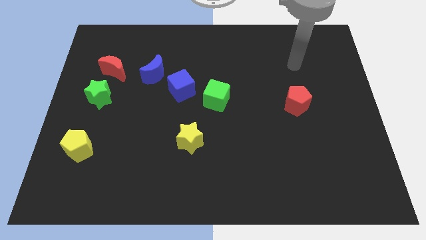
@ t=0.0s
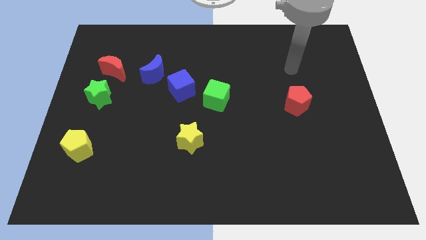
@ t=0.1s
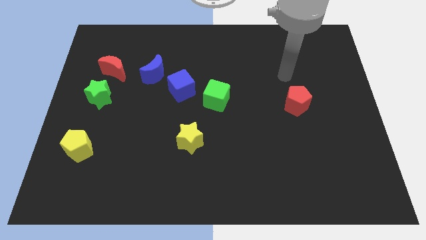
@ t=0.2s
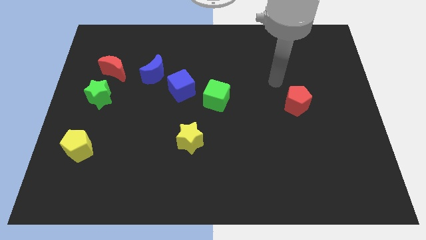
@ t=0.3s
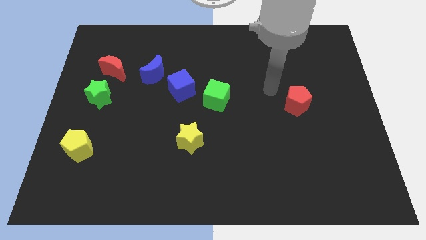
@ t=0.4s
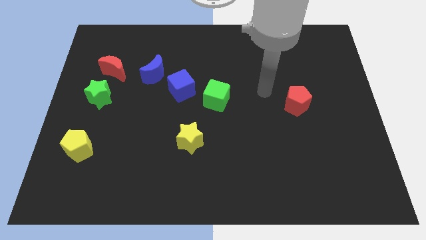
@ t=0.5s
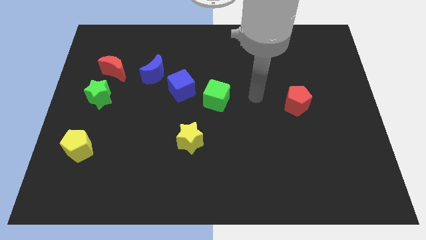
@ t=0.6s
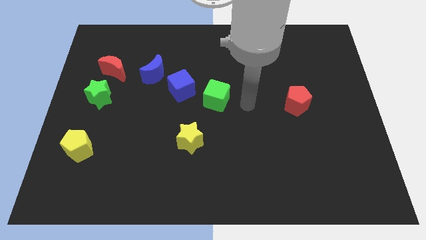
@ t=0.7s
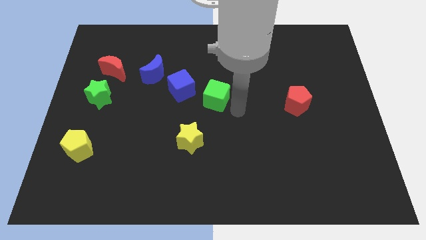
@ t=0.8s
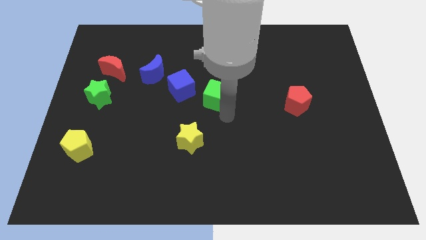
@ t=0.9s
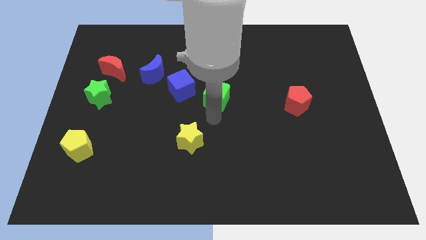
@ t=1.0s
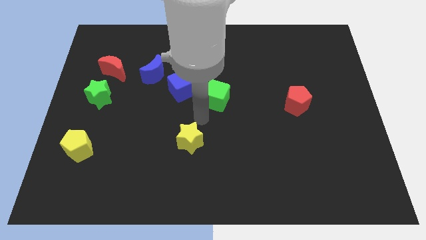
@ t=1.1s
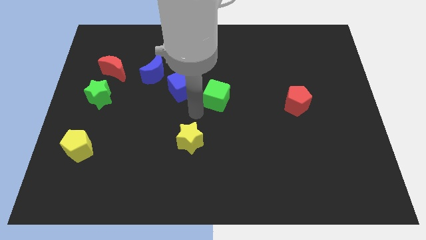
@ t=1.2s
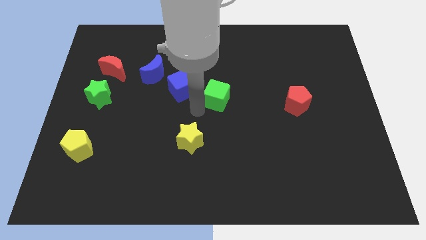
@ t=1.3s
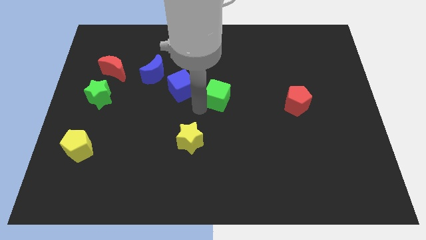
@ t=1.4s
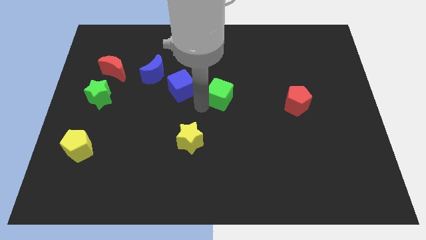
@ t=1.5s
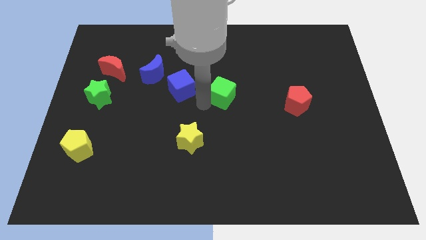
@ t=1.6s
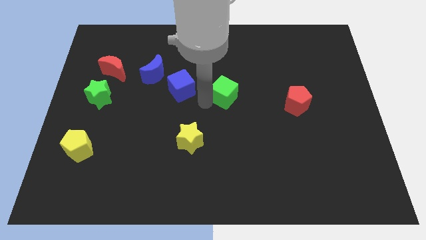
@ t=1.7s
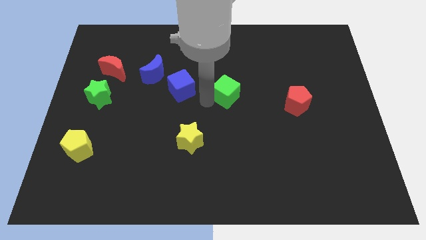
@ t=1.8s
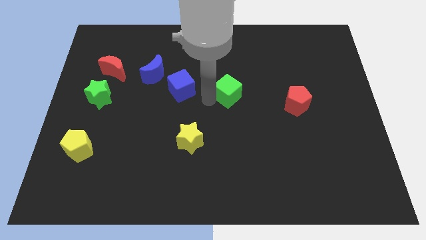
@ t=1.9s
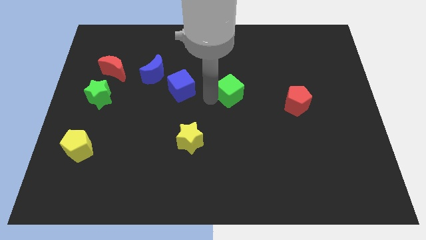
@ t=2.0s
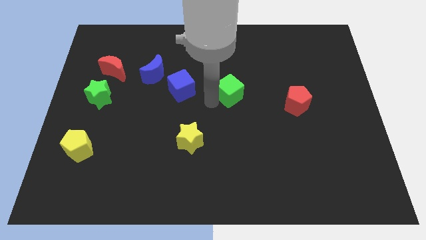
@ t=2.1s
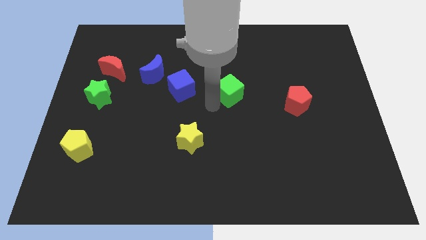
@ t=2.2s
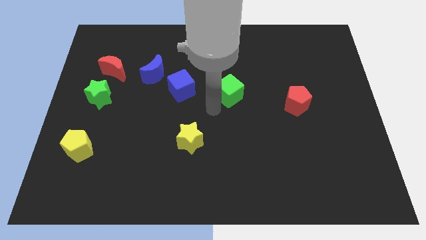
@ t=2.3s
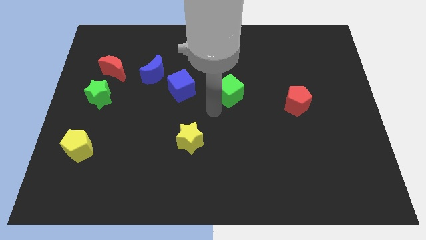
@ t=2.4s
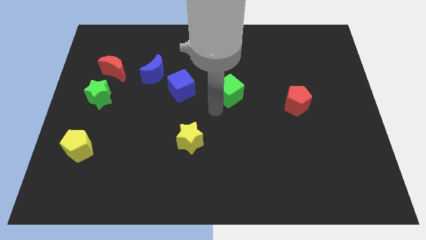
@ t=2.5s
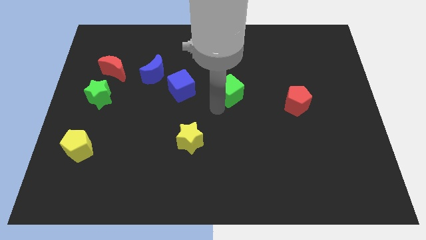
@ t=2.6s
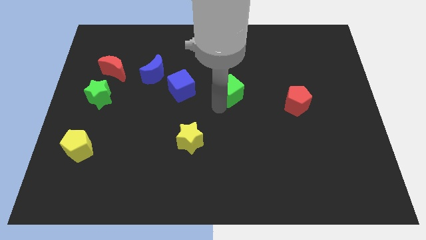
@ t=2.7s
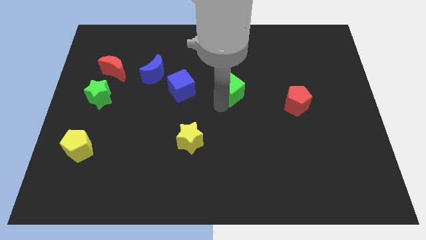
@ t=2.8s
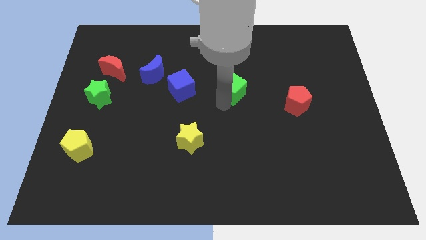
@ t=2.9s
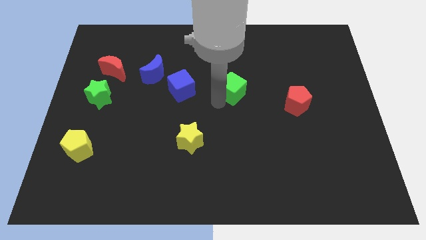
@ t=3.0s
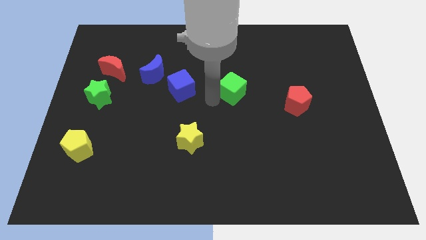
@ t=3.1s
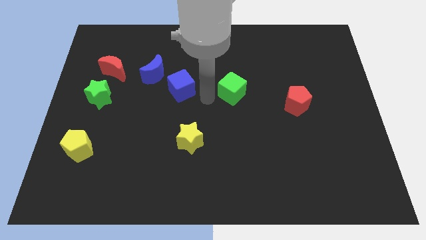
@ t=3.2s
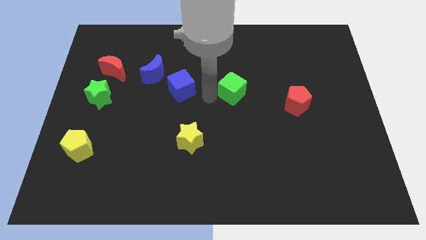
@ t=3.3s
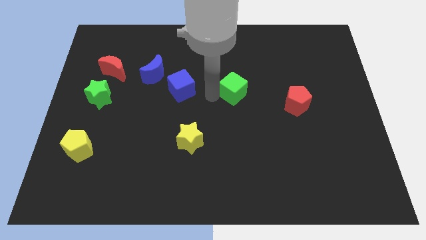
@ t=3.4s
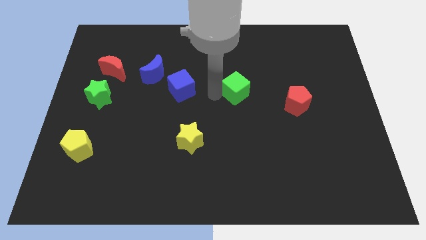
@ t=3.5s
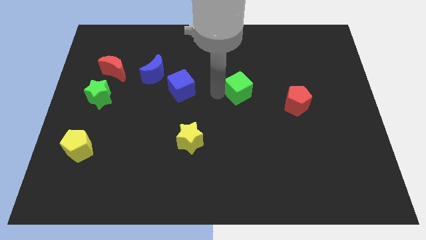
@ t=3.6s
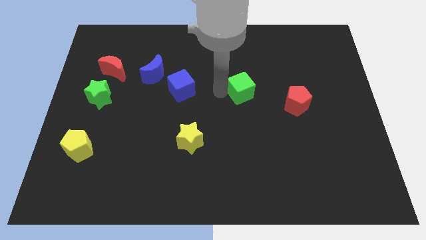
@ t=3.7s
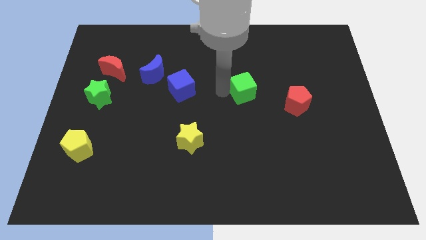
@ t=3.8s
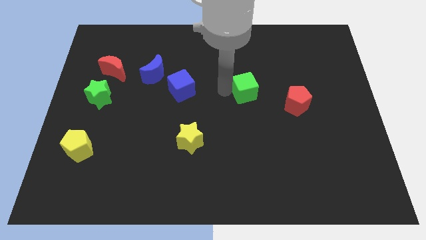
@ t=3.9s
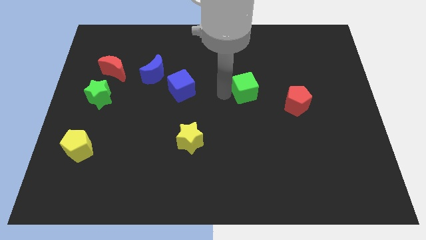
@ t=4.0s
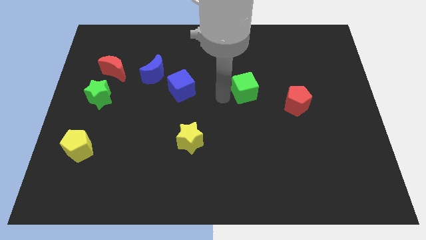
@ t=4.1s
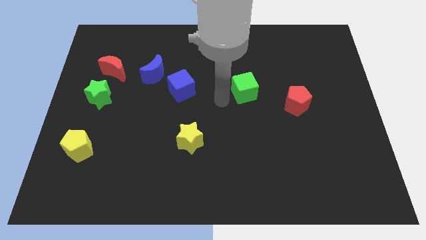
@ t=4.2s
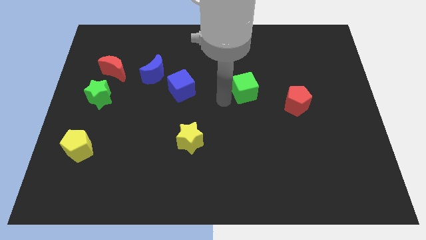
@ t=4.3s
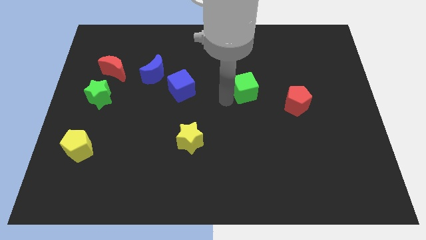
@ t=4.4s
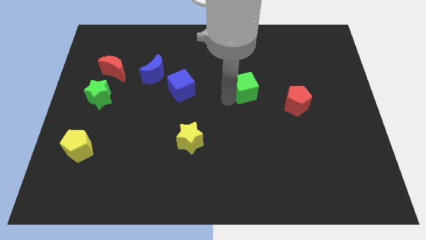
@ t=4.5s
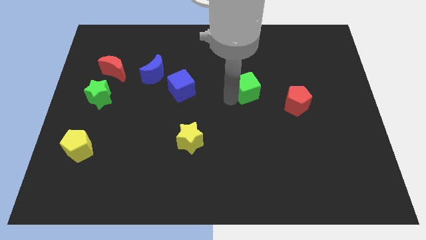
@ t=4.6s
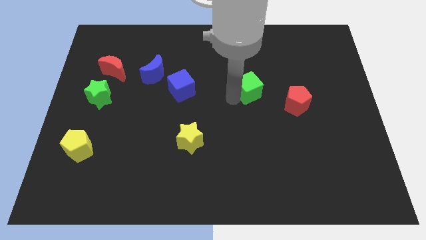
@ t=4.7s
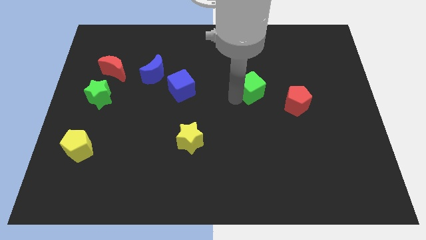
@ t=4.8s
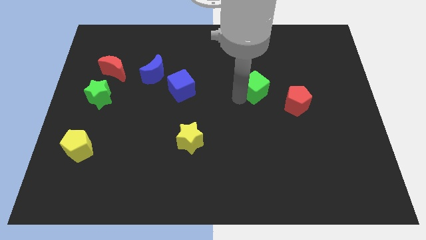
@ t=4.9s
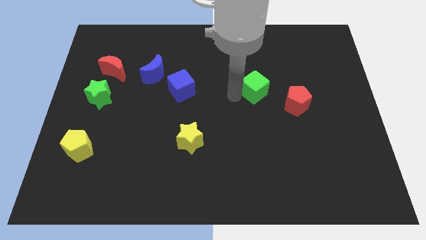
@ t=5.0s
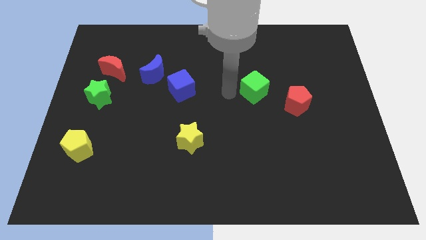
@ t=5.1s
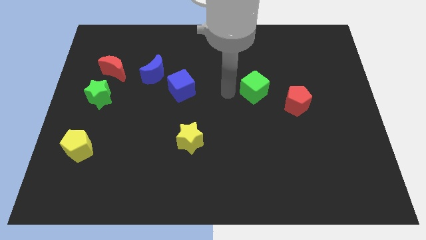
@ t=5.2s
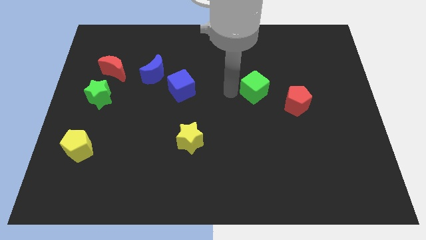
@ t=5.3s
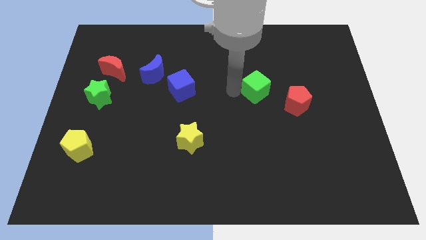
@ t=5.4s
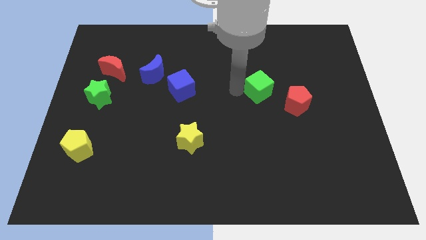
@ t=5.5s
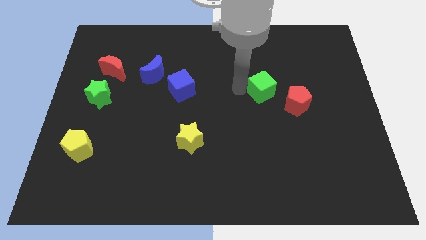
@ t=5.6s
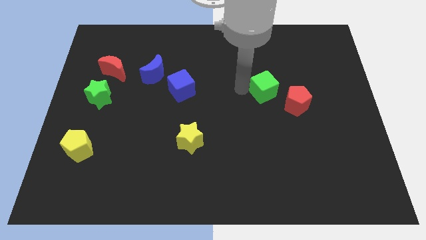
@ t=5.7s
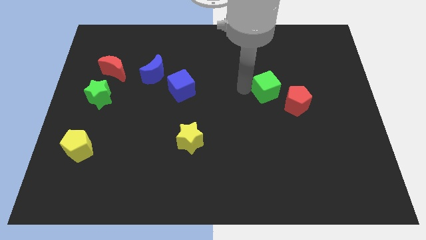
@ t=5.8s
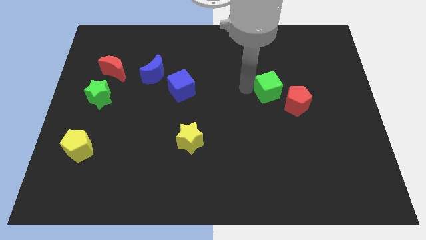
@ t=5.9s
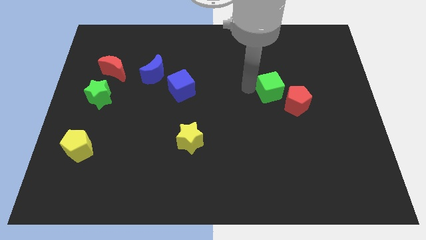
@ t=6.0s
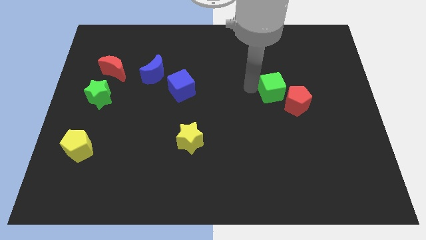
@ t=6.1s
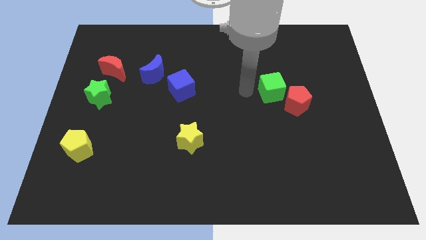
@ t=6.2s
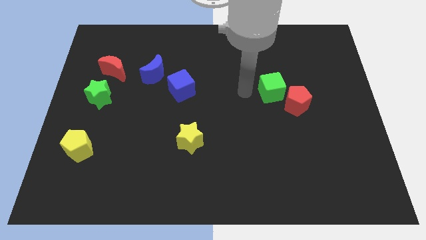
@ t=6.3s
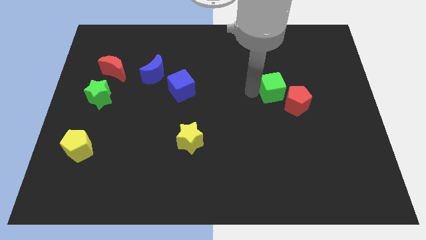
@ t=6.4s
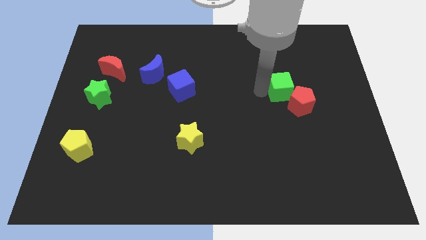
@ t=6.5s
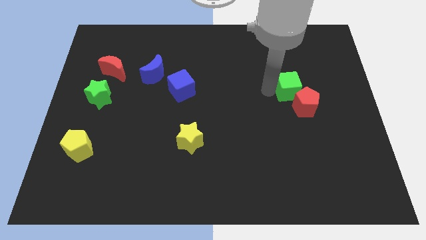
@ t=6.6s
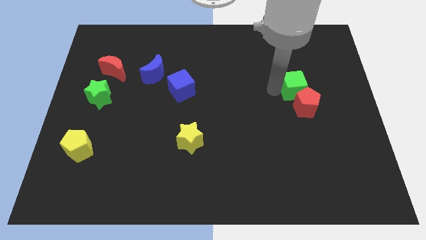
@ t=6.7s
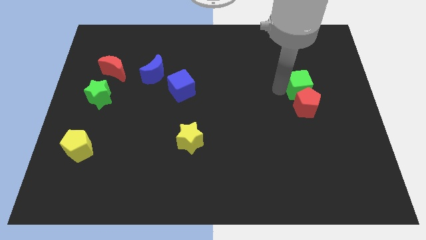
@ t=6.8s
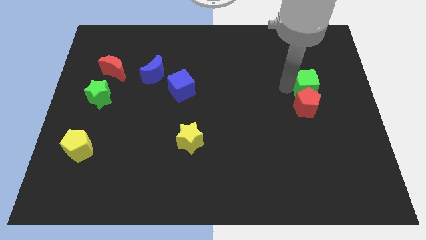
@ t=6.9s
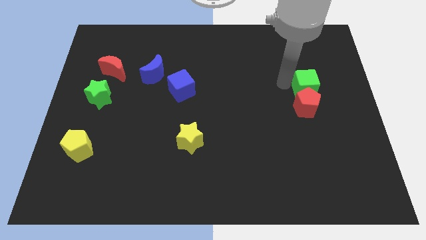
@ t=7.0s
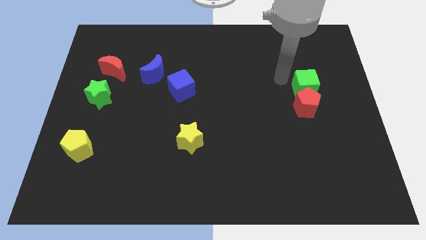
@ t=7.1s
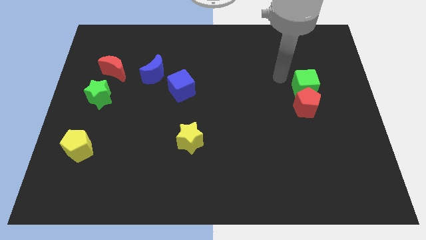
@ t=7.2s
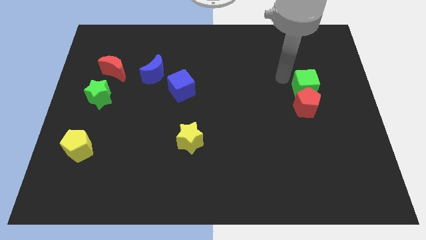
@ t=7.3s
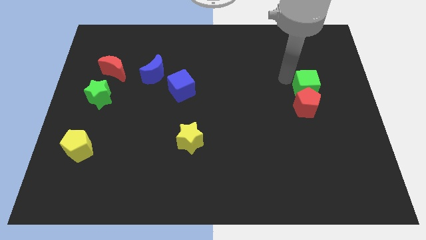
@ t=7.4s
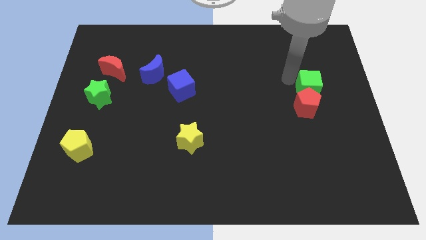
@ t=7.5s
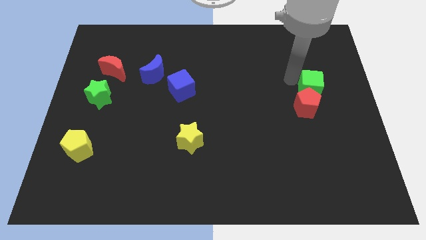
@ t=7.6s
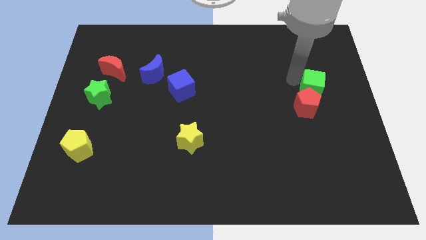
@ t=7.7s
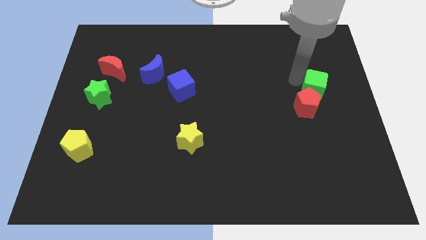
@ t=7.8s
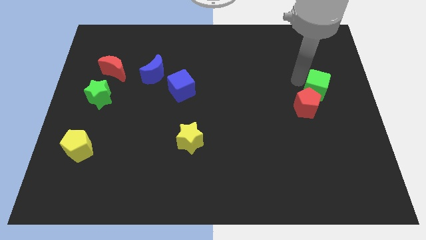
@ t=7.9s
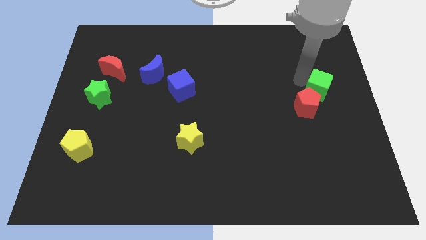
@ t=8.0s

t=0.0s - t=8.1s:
move the green cube to the right side
